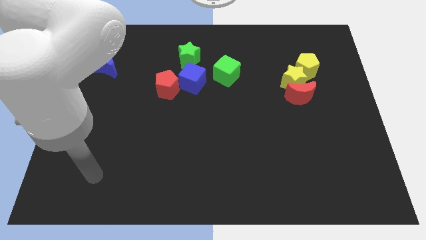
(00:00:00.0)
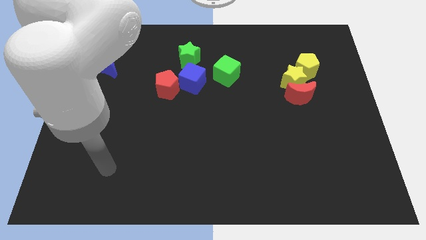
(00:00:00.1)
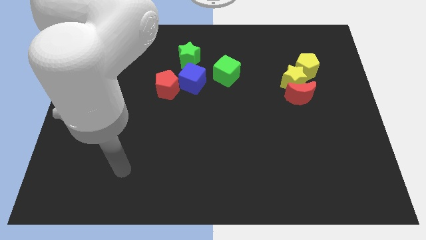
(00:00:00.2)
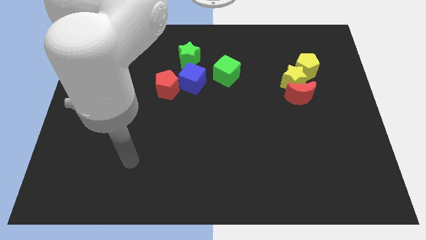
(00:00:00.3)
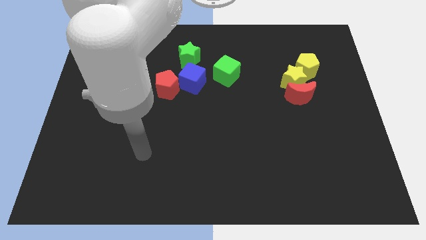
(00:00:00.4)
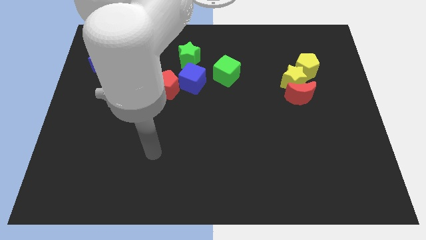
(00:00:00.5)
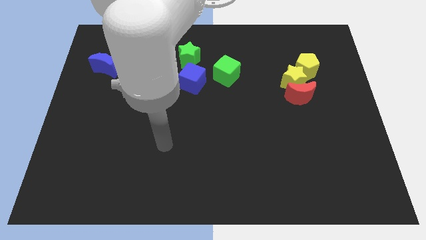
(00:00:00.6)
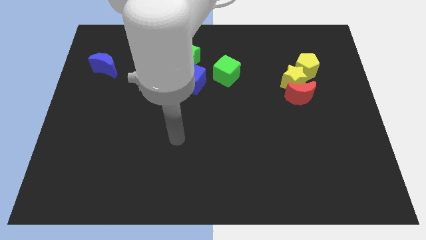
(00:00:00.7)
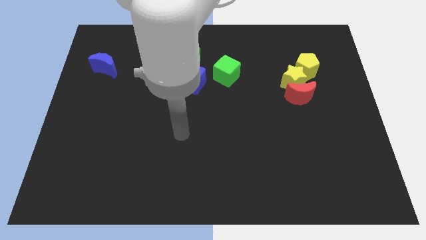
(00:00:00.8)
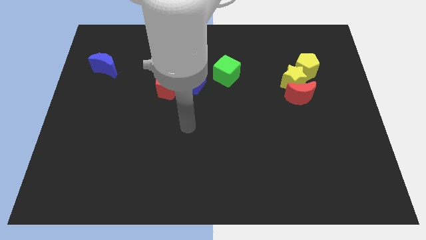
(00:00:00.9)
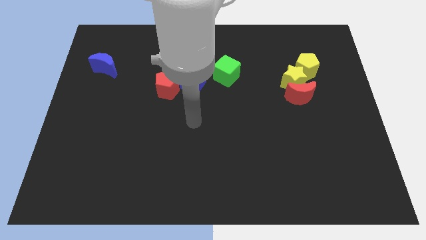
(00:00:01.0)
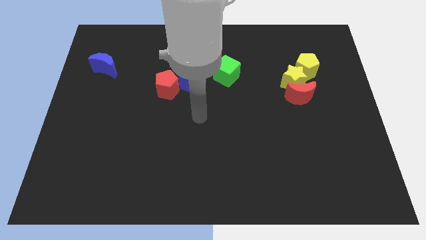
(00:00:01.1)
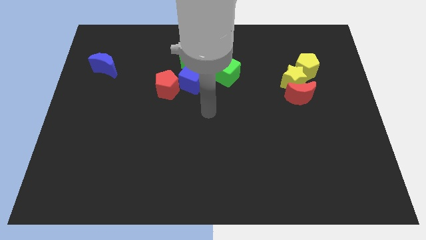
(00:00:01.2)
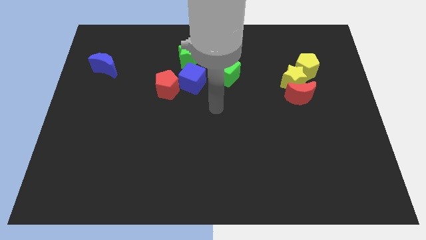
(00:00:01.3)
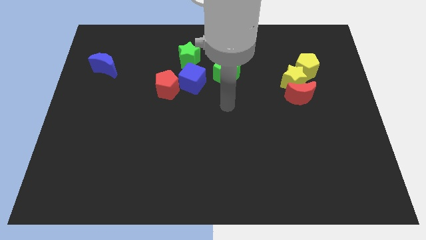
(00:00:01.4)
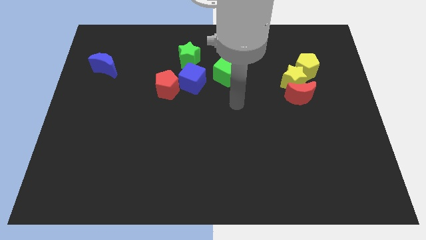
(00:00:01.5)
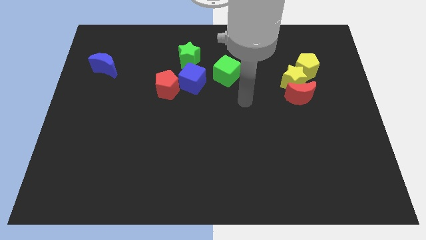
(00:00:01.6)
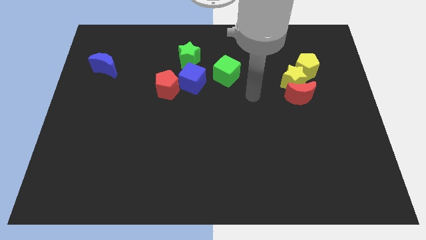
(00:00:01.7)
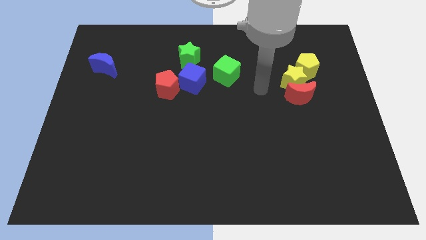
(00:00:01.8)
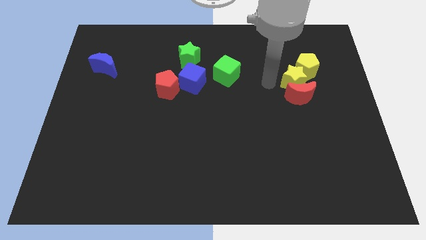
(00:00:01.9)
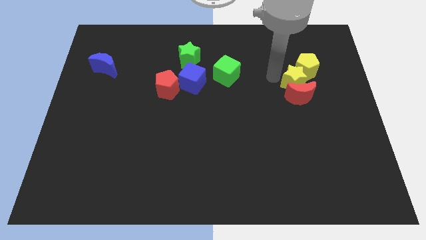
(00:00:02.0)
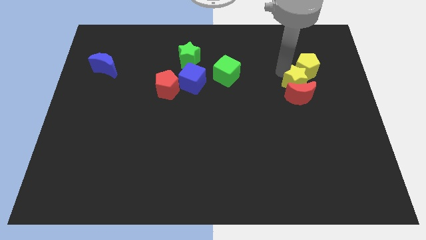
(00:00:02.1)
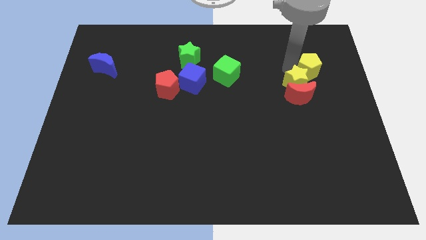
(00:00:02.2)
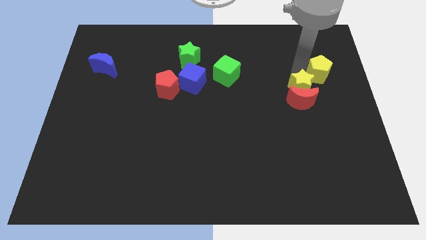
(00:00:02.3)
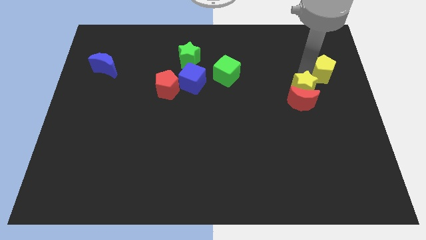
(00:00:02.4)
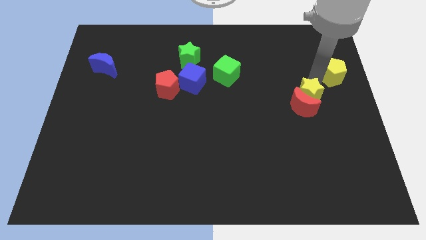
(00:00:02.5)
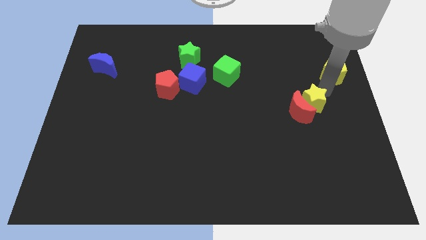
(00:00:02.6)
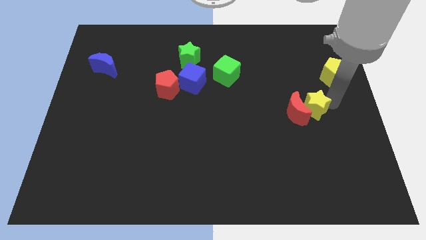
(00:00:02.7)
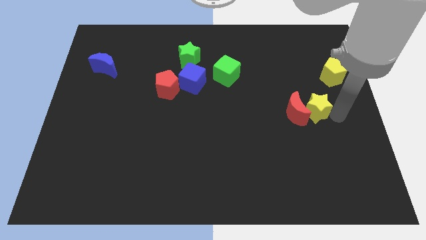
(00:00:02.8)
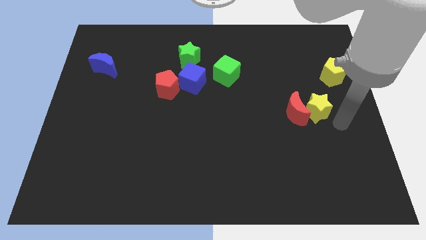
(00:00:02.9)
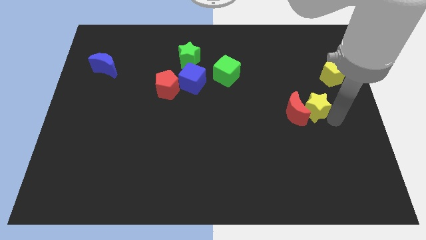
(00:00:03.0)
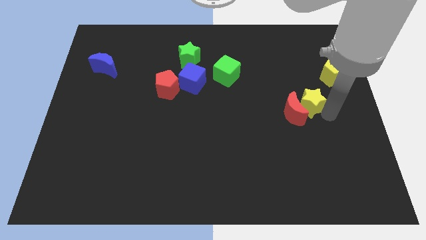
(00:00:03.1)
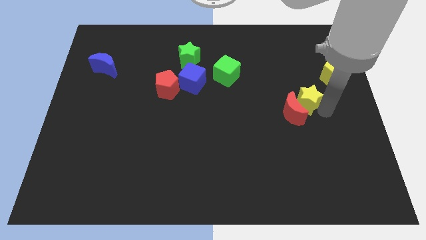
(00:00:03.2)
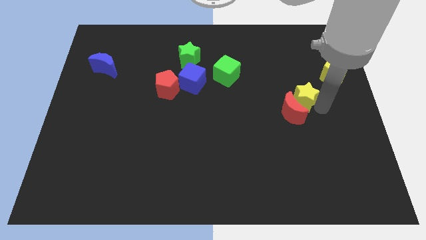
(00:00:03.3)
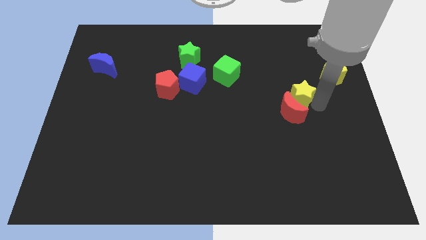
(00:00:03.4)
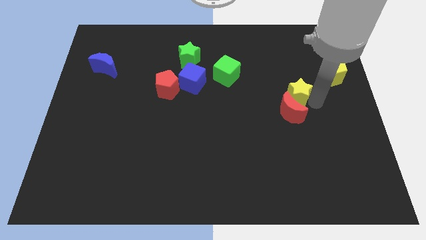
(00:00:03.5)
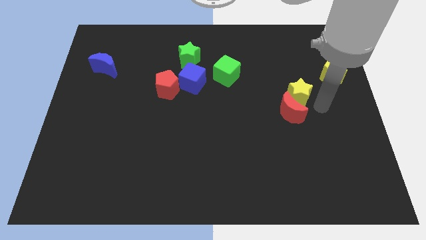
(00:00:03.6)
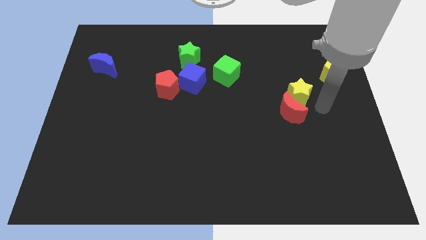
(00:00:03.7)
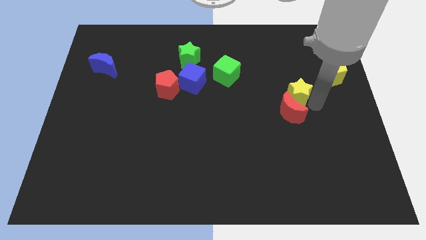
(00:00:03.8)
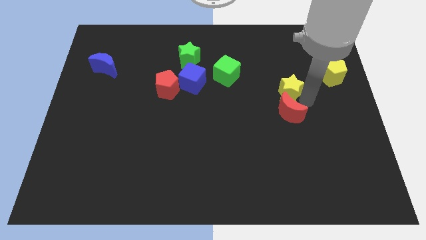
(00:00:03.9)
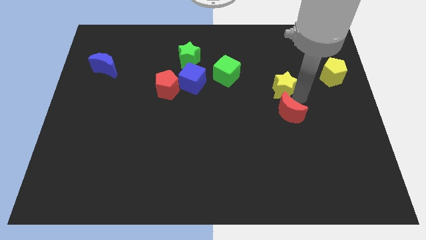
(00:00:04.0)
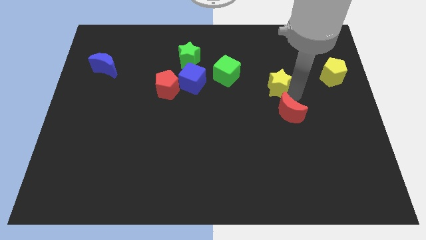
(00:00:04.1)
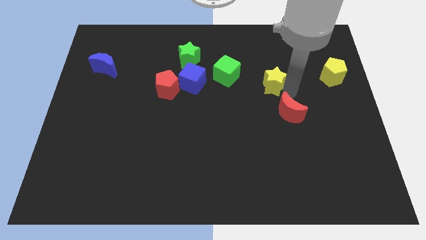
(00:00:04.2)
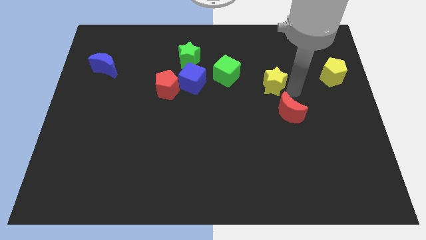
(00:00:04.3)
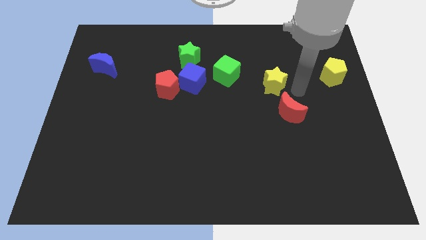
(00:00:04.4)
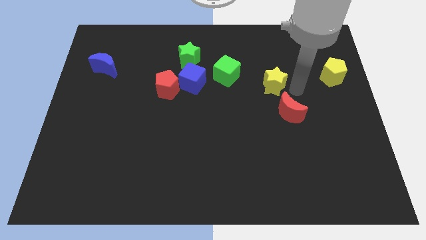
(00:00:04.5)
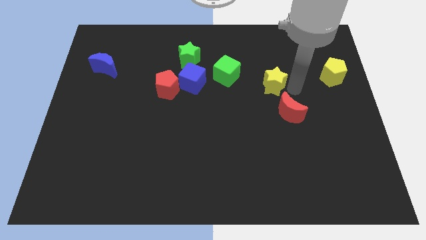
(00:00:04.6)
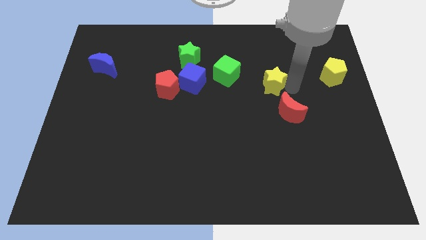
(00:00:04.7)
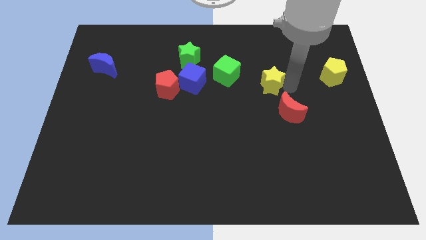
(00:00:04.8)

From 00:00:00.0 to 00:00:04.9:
move the yellow star away from the red moon and yellow pentagon

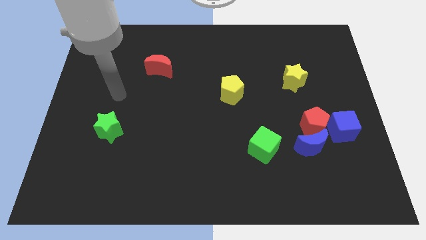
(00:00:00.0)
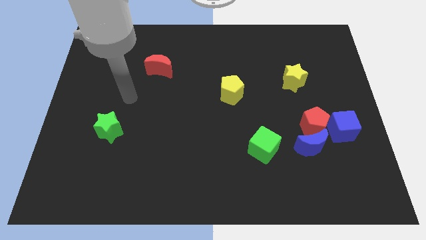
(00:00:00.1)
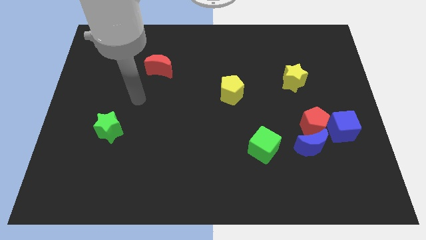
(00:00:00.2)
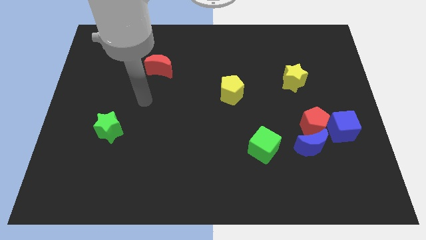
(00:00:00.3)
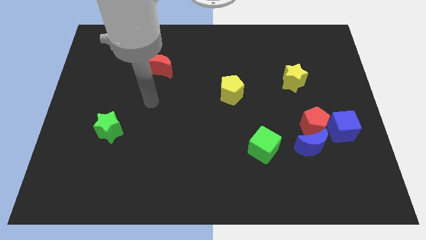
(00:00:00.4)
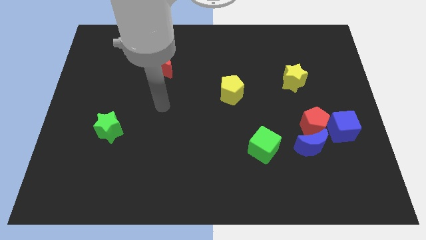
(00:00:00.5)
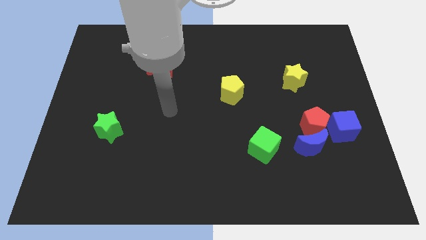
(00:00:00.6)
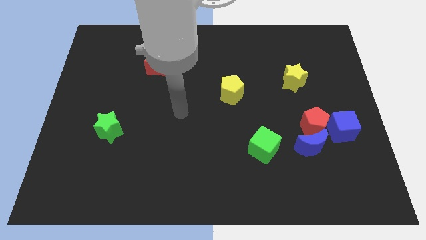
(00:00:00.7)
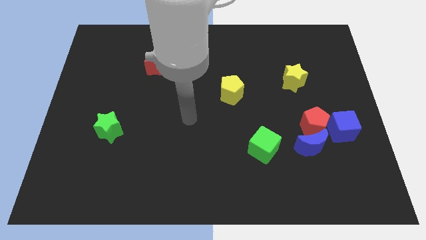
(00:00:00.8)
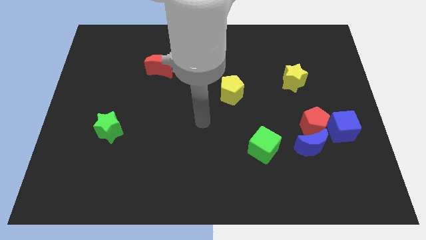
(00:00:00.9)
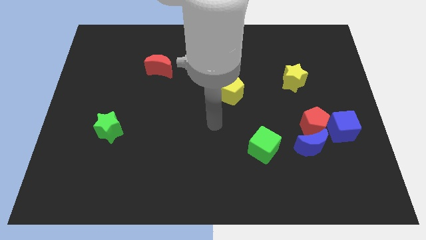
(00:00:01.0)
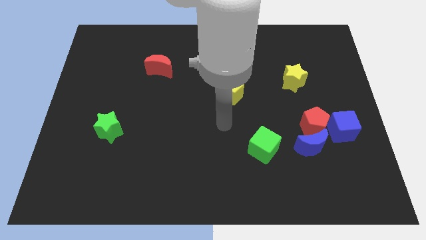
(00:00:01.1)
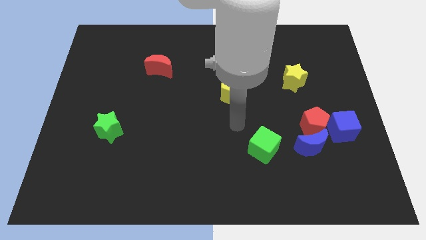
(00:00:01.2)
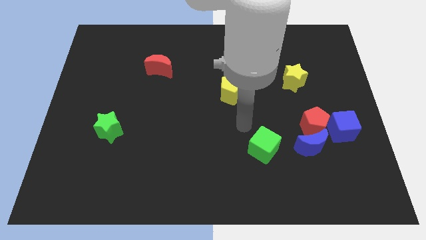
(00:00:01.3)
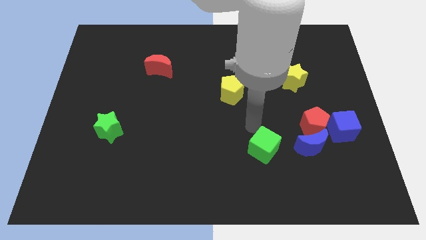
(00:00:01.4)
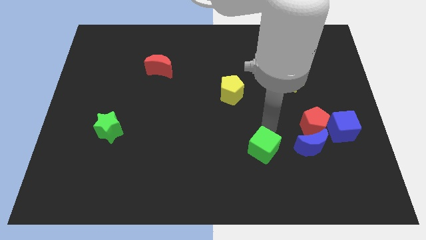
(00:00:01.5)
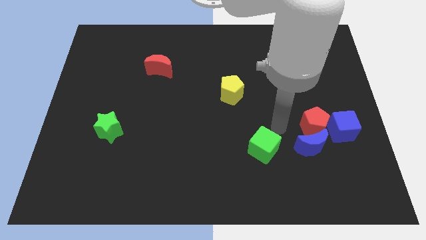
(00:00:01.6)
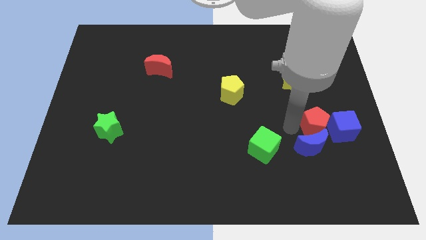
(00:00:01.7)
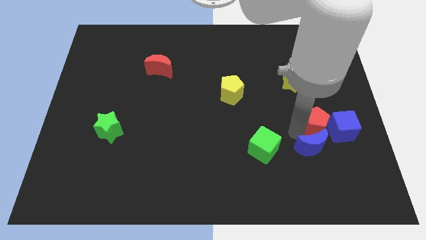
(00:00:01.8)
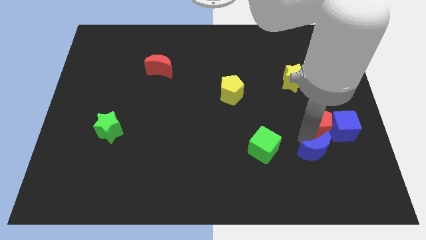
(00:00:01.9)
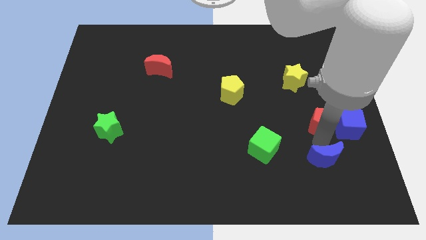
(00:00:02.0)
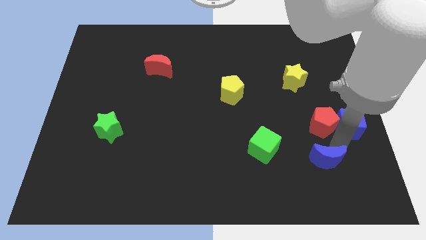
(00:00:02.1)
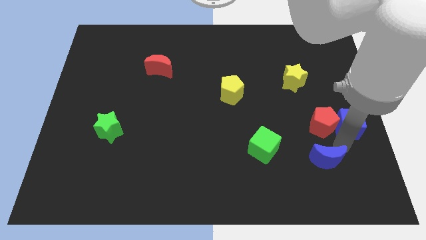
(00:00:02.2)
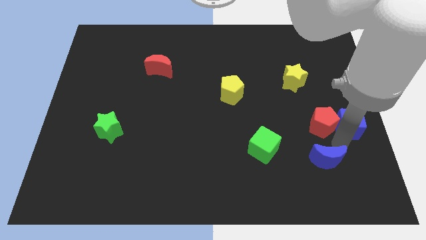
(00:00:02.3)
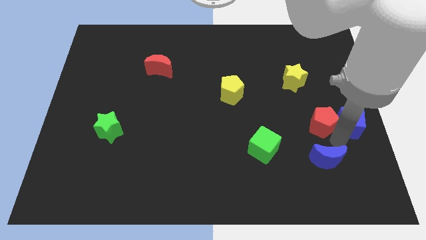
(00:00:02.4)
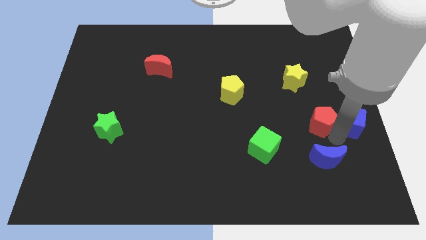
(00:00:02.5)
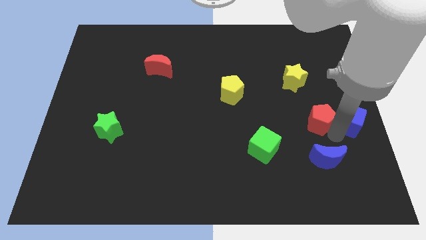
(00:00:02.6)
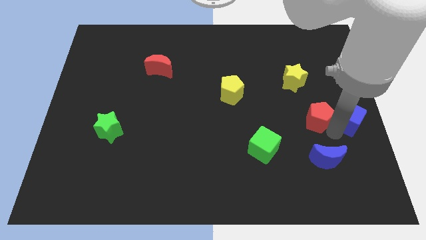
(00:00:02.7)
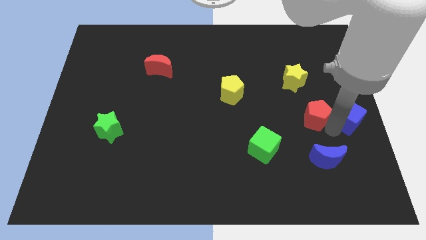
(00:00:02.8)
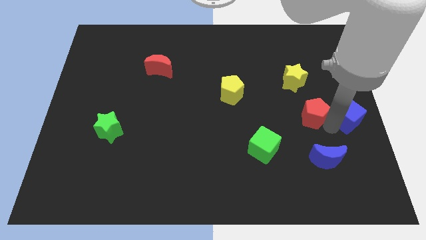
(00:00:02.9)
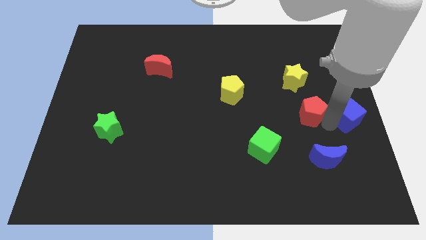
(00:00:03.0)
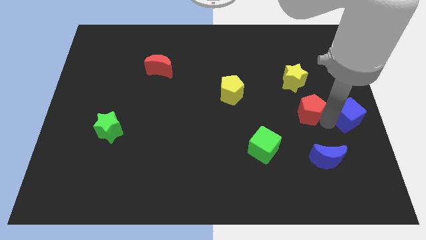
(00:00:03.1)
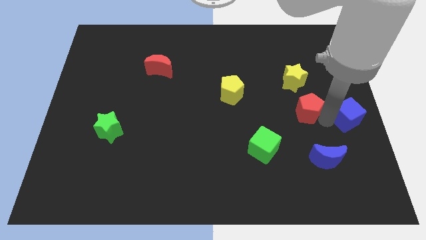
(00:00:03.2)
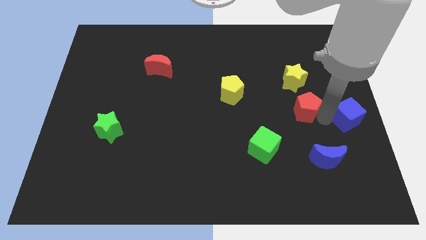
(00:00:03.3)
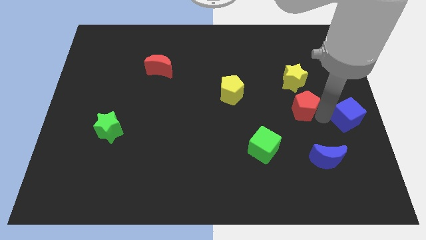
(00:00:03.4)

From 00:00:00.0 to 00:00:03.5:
pull the red pentagon apart from the blue moon and blue cube

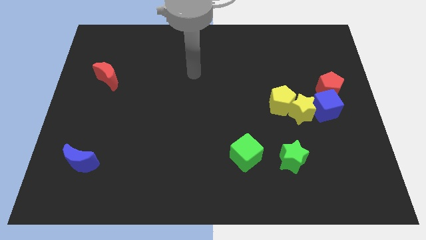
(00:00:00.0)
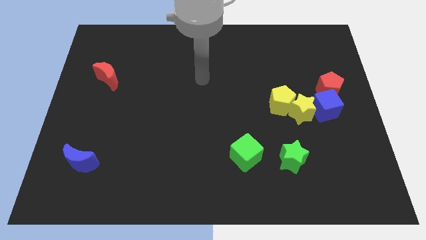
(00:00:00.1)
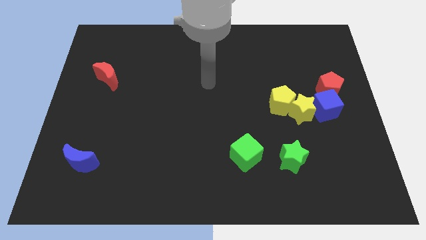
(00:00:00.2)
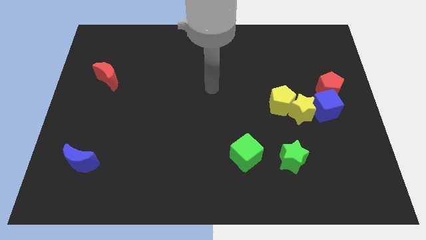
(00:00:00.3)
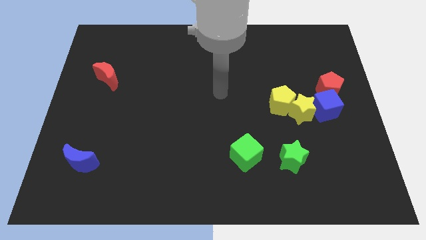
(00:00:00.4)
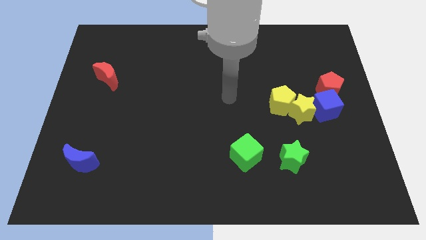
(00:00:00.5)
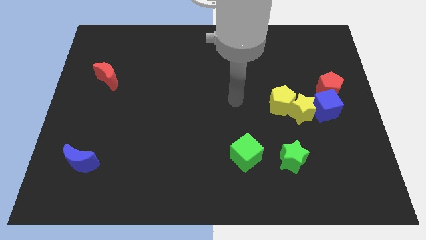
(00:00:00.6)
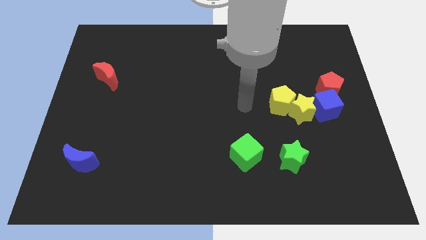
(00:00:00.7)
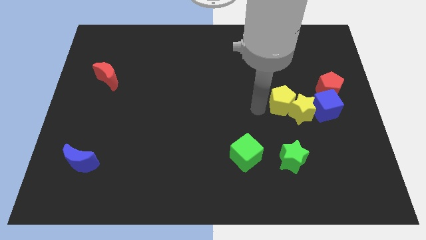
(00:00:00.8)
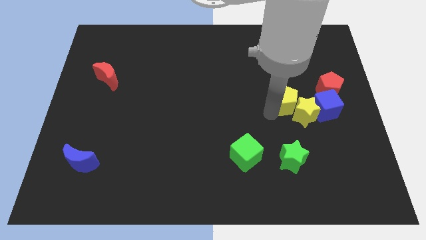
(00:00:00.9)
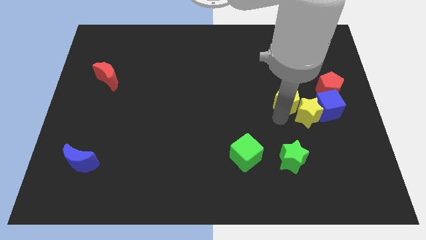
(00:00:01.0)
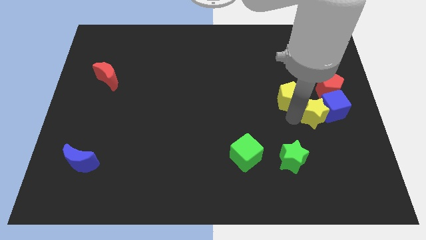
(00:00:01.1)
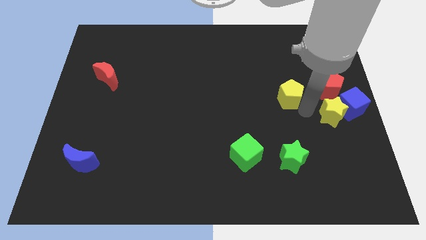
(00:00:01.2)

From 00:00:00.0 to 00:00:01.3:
pull the yellow pentagon apart from the yellow star
